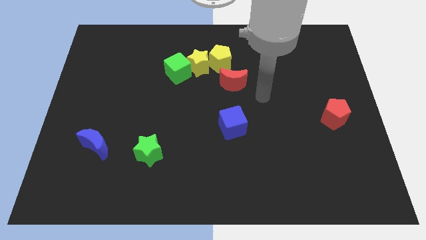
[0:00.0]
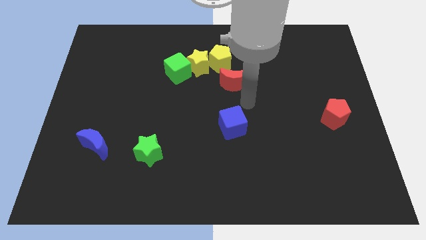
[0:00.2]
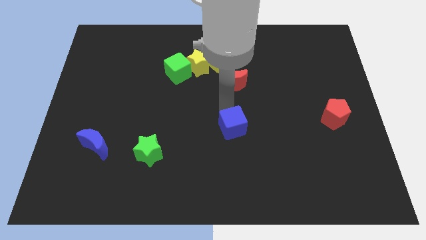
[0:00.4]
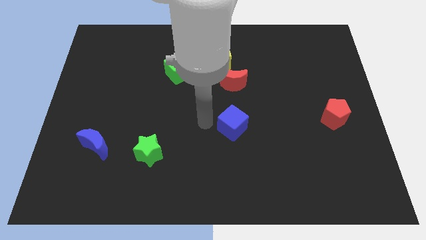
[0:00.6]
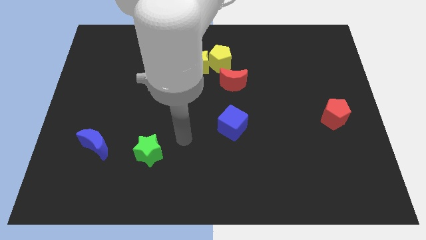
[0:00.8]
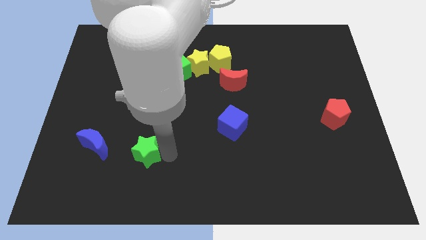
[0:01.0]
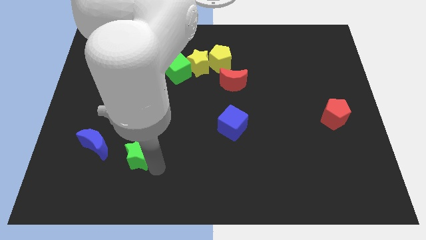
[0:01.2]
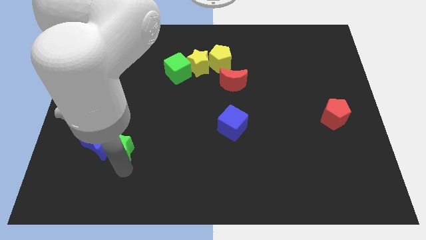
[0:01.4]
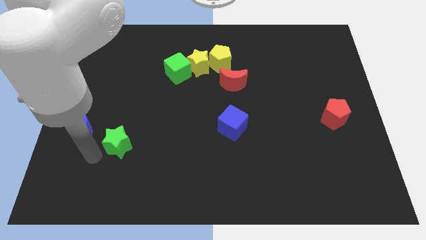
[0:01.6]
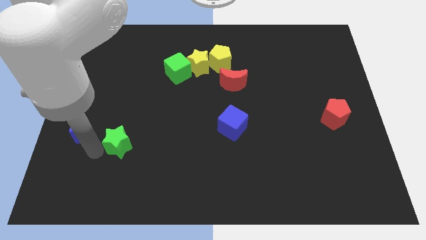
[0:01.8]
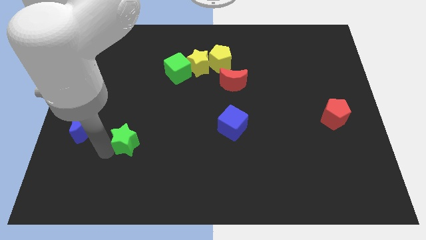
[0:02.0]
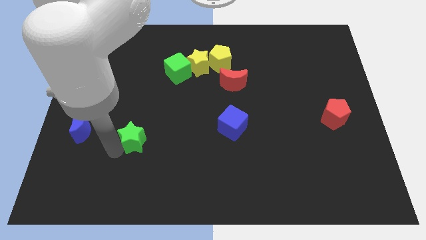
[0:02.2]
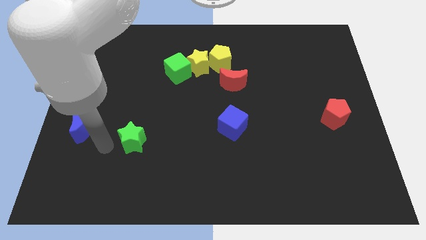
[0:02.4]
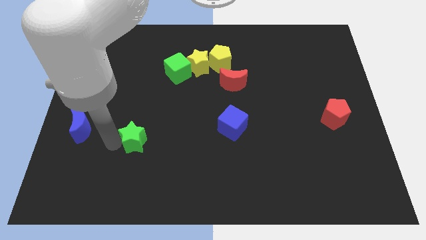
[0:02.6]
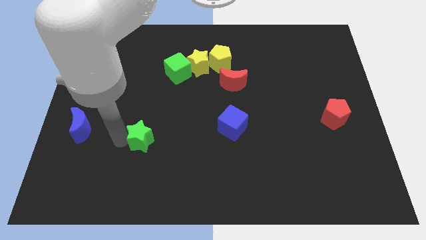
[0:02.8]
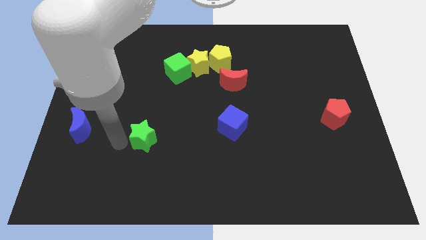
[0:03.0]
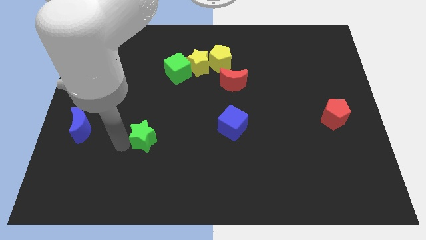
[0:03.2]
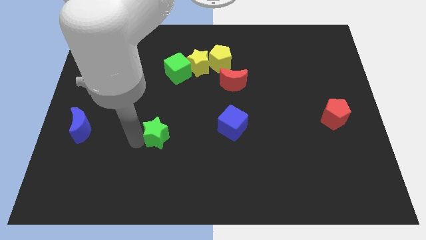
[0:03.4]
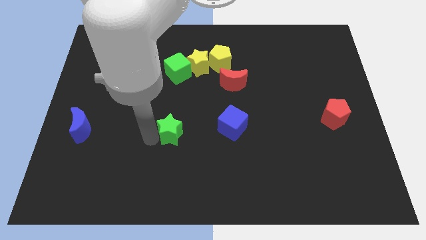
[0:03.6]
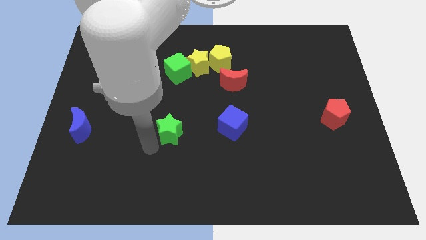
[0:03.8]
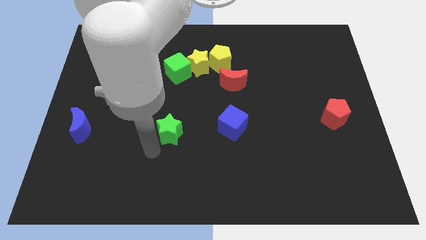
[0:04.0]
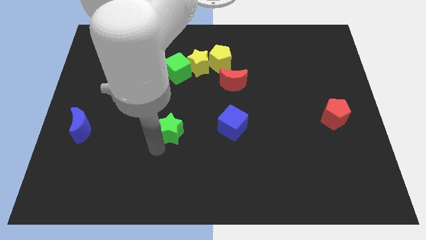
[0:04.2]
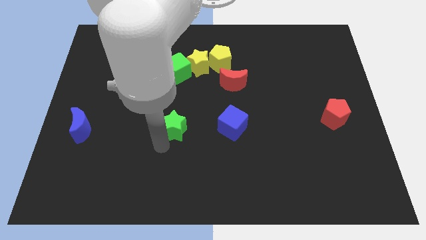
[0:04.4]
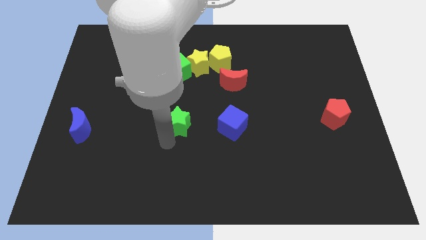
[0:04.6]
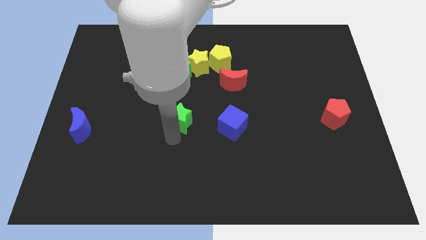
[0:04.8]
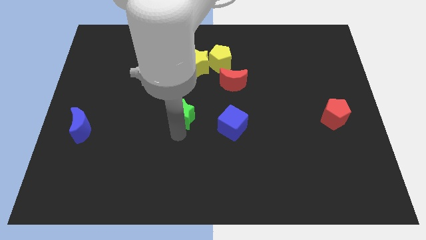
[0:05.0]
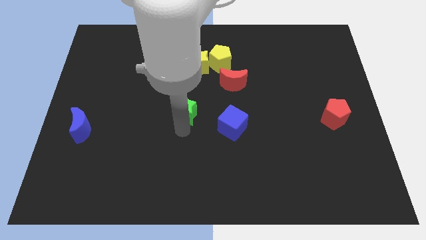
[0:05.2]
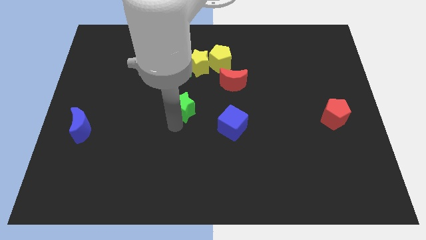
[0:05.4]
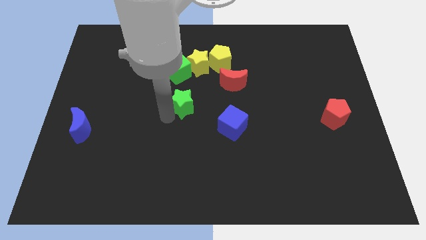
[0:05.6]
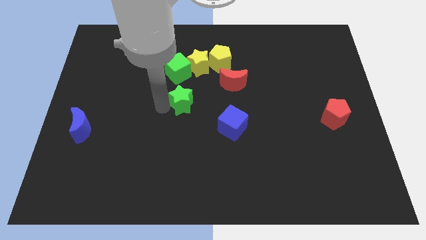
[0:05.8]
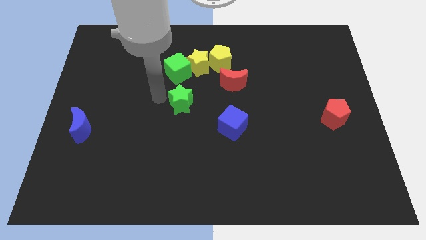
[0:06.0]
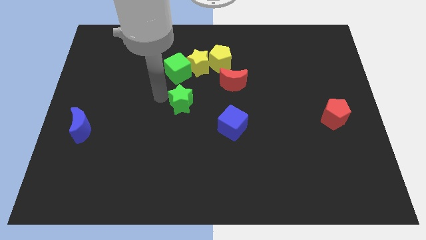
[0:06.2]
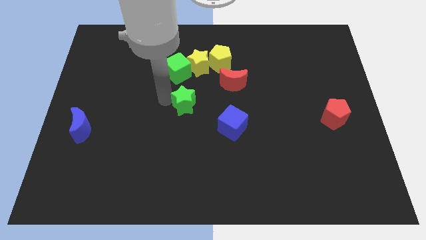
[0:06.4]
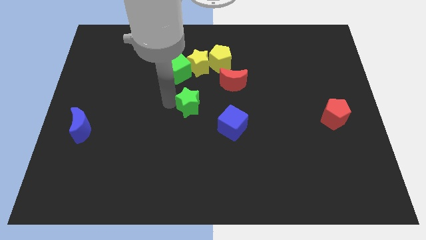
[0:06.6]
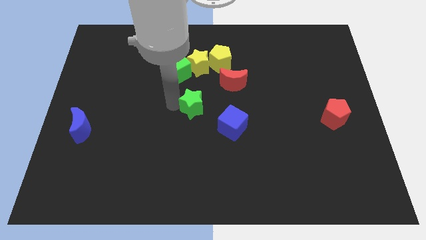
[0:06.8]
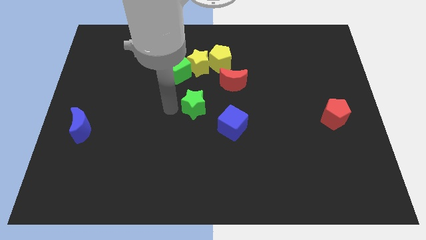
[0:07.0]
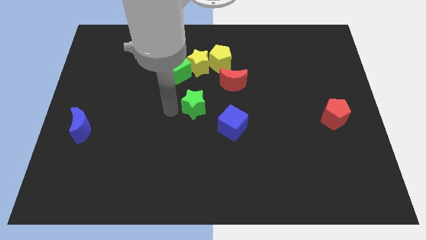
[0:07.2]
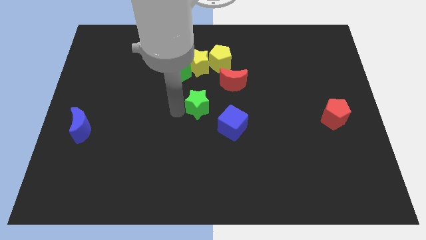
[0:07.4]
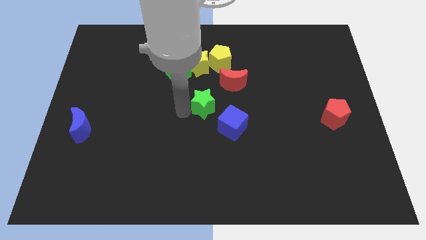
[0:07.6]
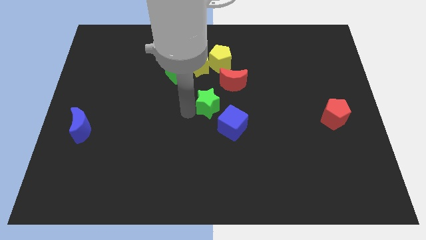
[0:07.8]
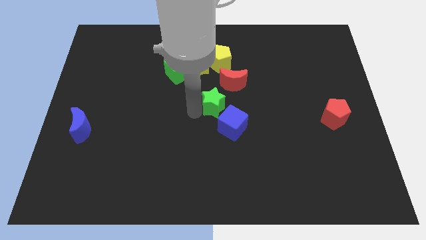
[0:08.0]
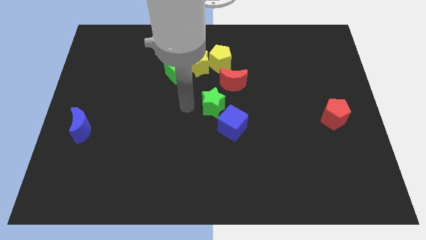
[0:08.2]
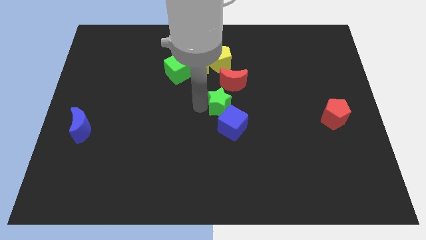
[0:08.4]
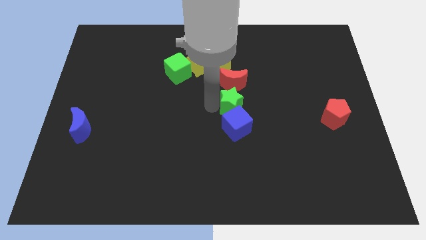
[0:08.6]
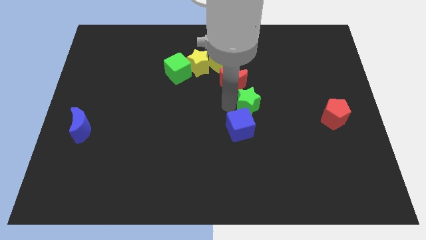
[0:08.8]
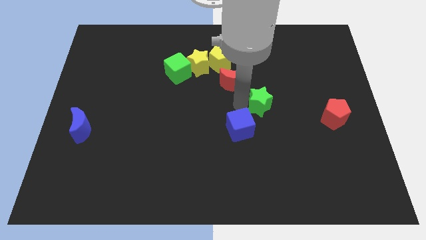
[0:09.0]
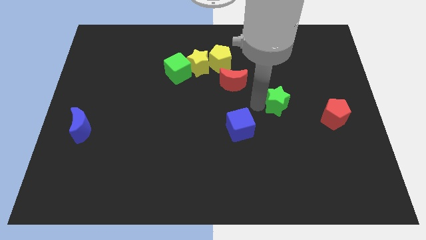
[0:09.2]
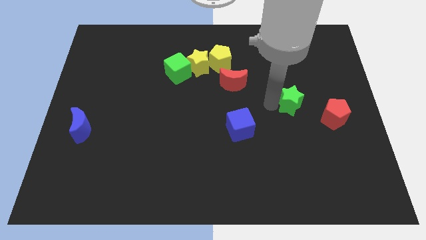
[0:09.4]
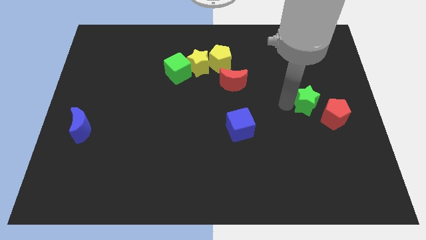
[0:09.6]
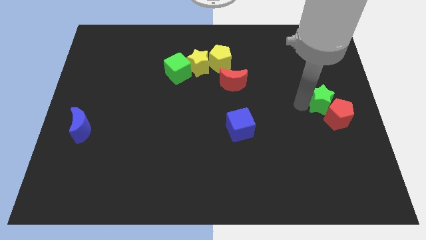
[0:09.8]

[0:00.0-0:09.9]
push the green star to the right side

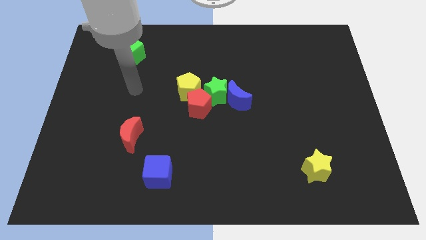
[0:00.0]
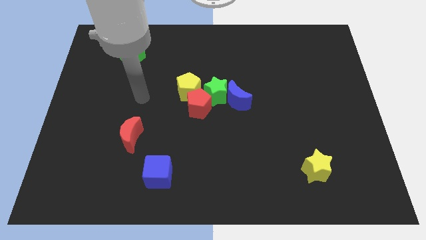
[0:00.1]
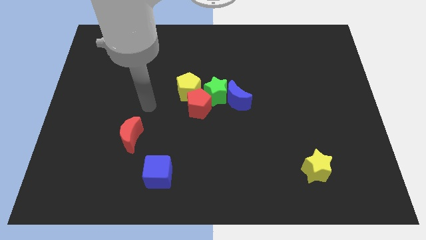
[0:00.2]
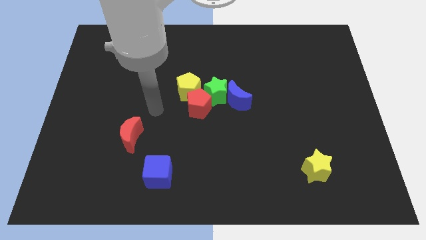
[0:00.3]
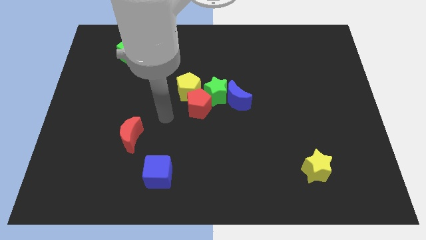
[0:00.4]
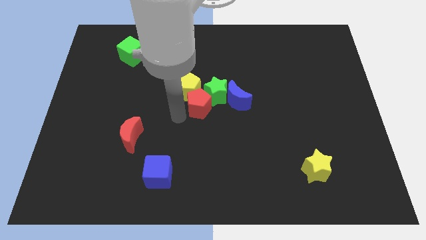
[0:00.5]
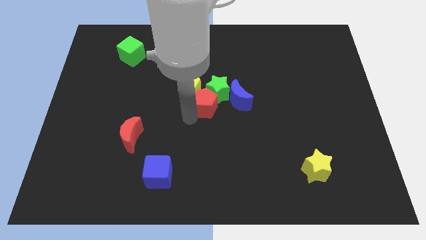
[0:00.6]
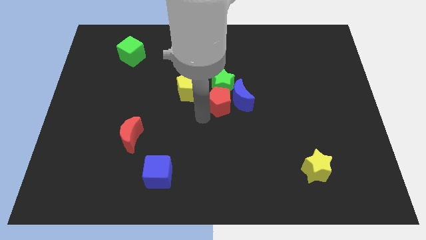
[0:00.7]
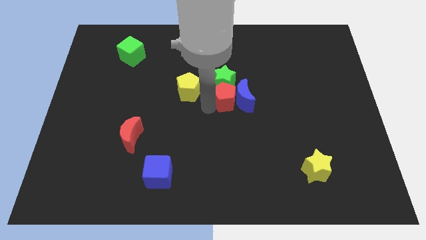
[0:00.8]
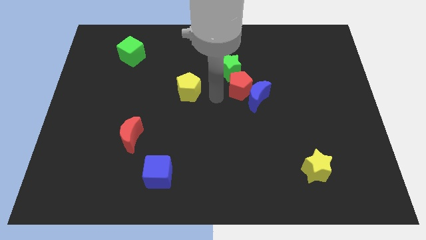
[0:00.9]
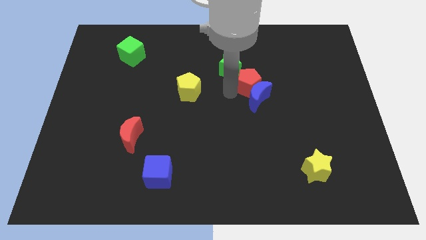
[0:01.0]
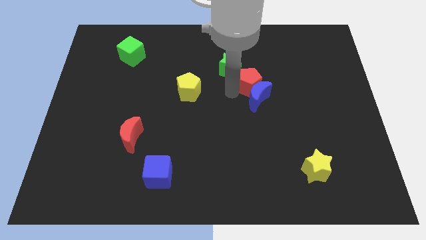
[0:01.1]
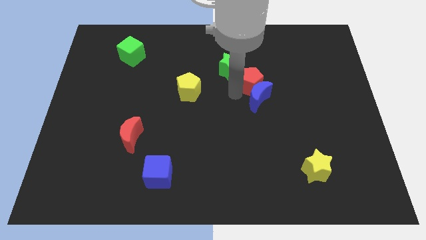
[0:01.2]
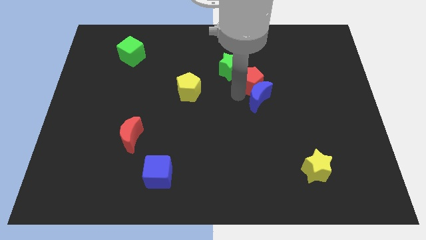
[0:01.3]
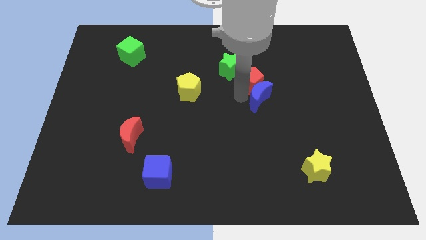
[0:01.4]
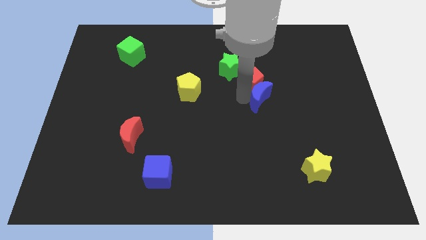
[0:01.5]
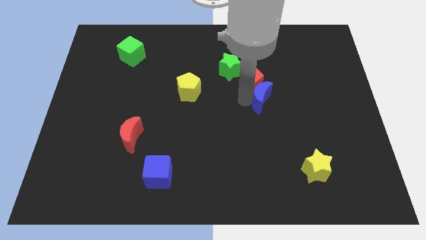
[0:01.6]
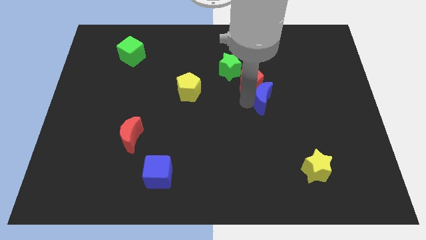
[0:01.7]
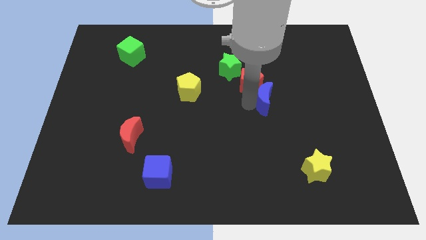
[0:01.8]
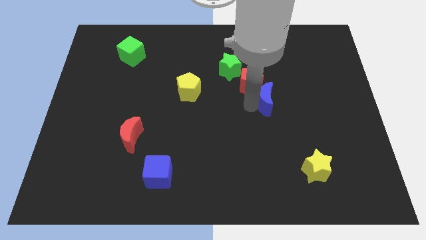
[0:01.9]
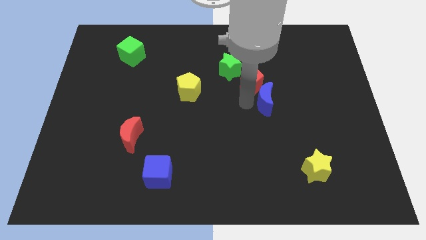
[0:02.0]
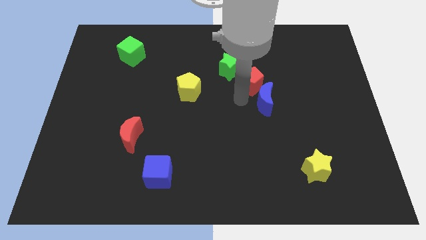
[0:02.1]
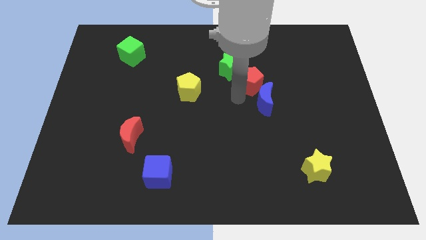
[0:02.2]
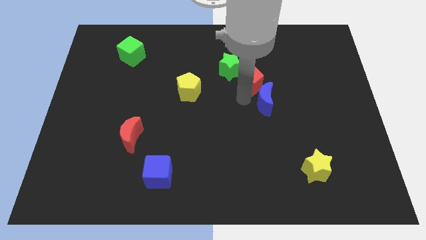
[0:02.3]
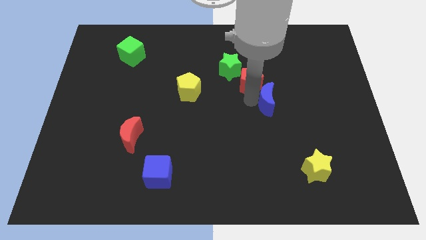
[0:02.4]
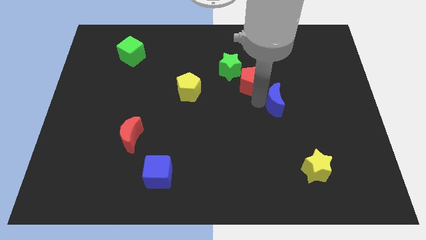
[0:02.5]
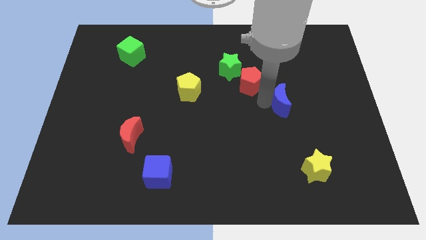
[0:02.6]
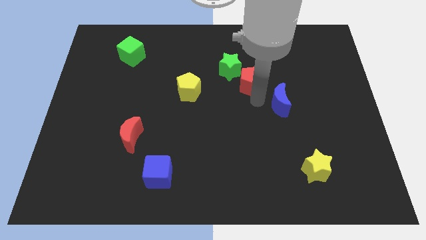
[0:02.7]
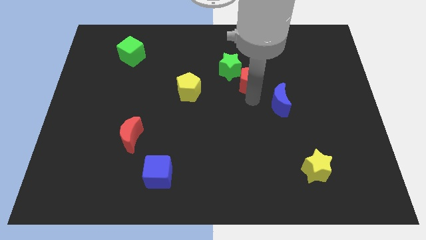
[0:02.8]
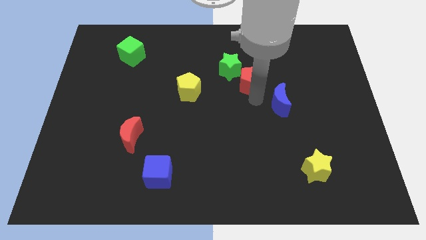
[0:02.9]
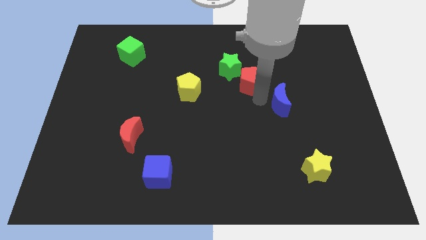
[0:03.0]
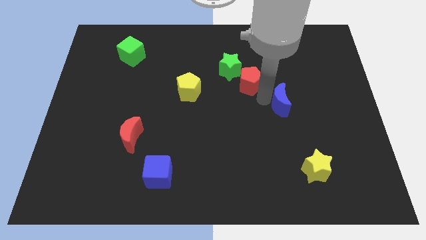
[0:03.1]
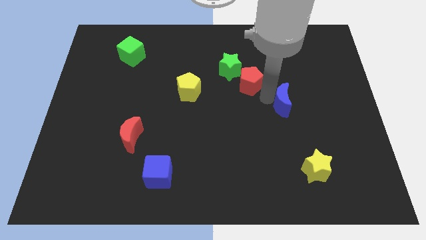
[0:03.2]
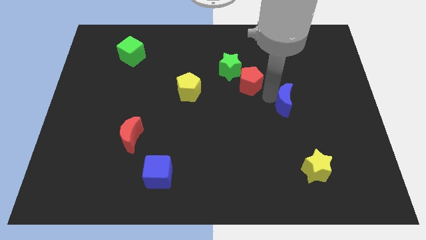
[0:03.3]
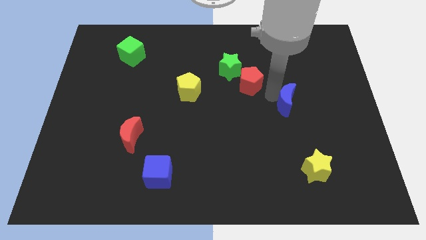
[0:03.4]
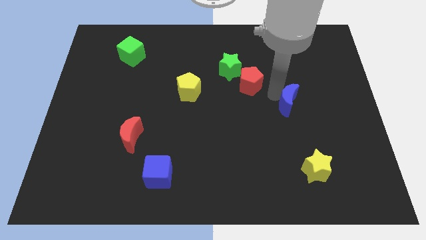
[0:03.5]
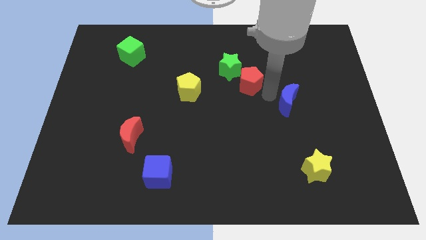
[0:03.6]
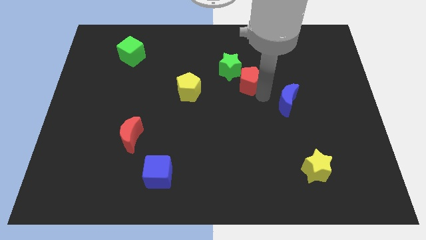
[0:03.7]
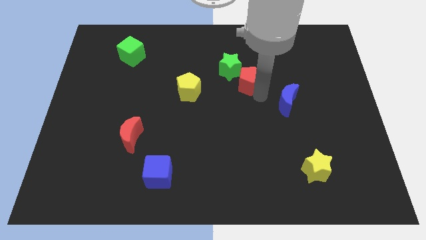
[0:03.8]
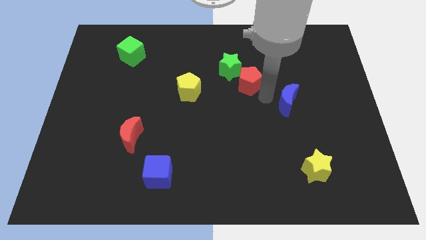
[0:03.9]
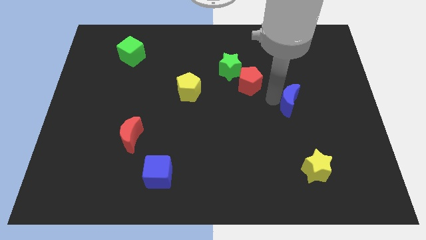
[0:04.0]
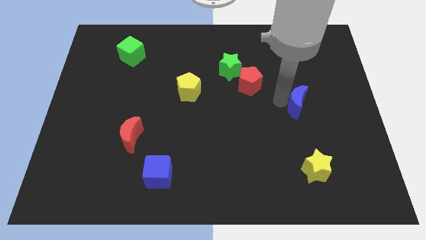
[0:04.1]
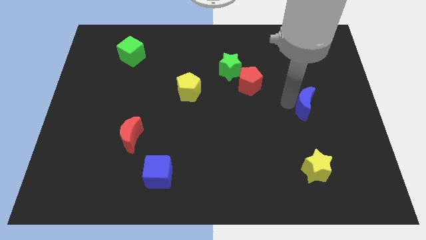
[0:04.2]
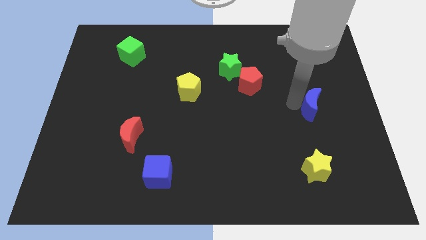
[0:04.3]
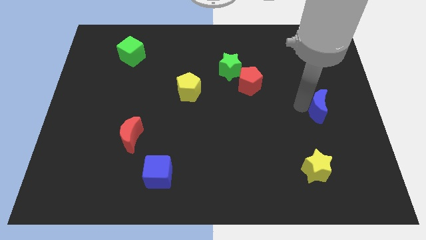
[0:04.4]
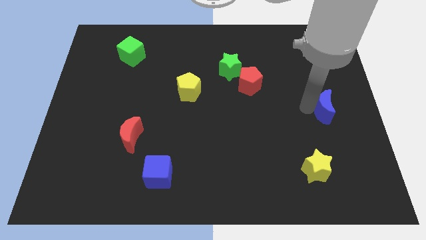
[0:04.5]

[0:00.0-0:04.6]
slide the blue moon to the center right
